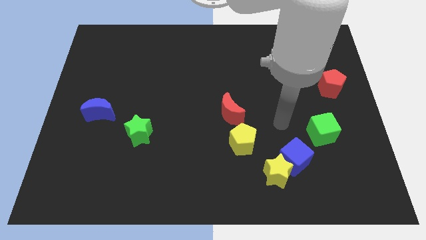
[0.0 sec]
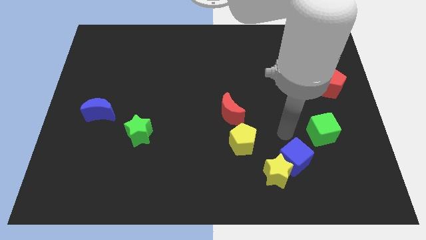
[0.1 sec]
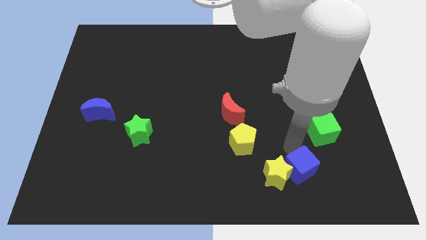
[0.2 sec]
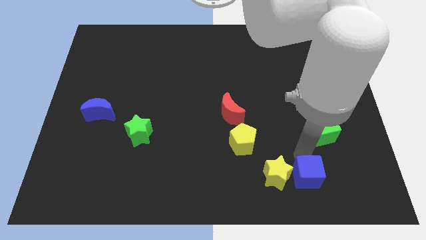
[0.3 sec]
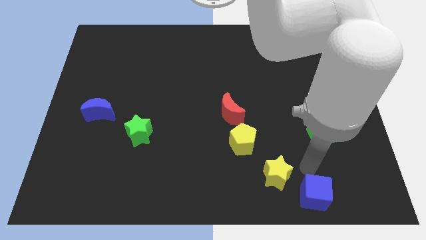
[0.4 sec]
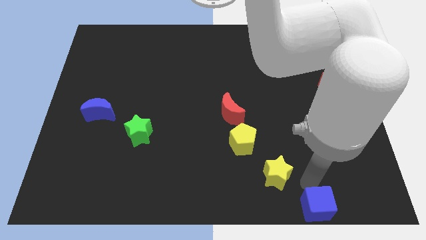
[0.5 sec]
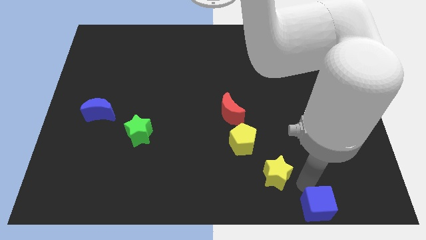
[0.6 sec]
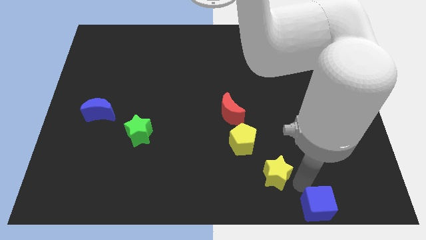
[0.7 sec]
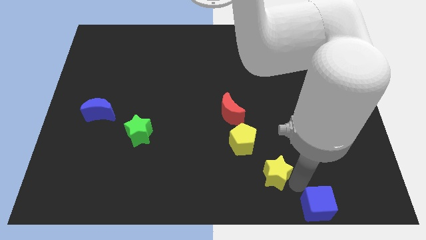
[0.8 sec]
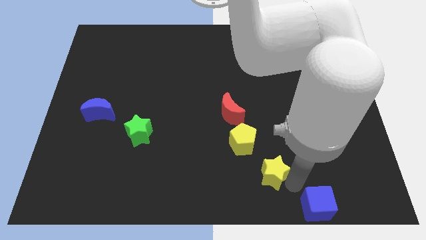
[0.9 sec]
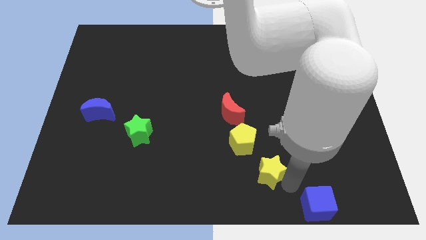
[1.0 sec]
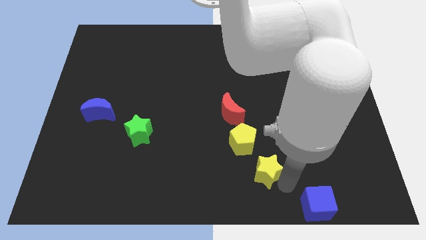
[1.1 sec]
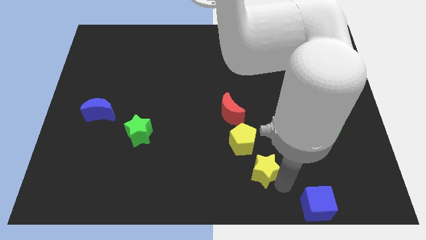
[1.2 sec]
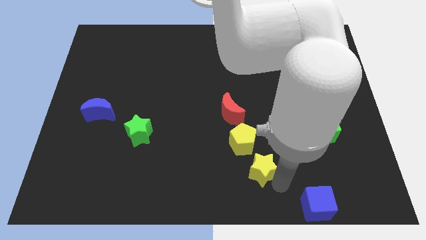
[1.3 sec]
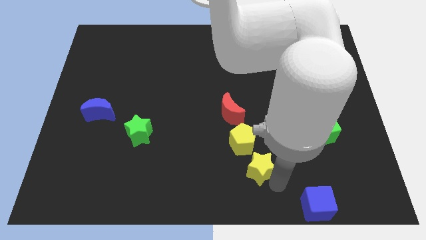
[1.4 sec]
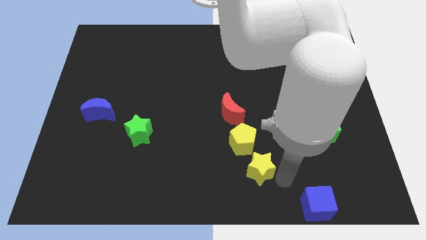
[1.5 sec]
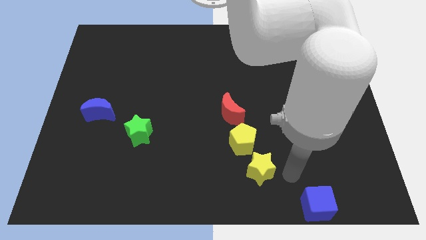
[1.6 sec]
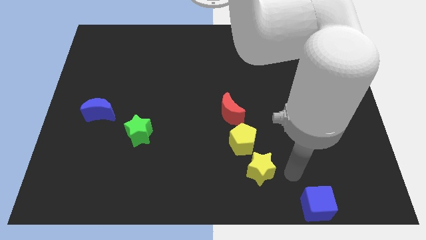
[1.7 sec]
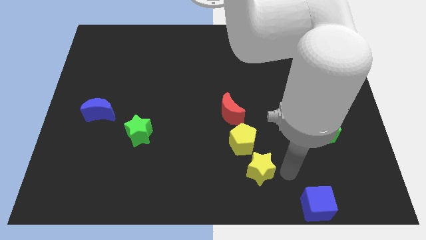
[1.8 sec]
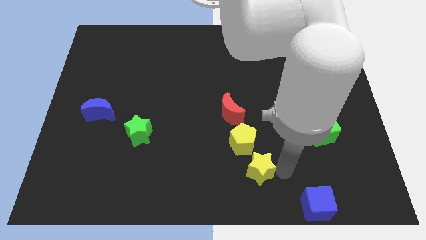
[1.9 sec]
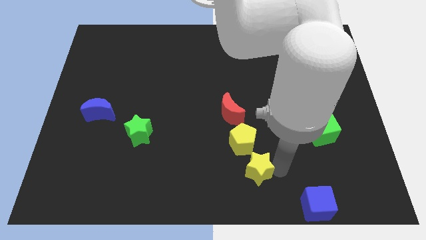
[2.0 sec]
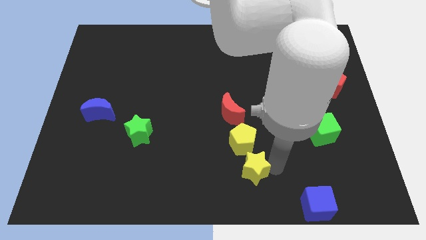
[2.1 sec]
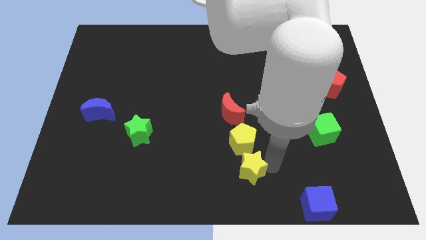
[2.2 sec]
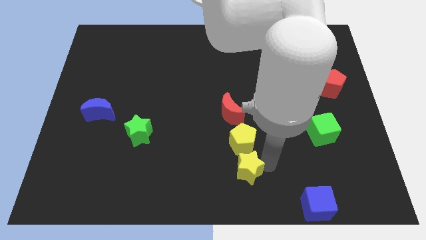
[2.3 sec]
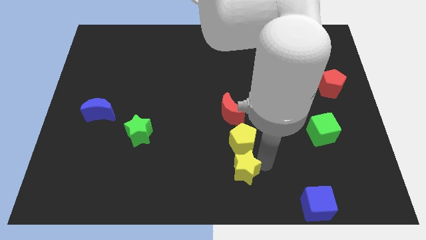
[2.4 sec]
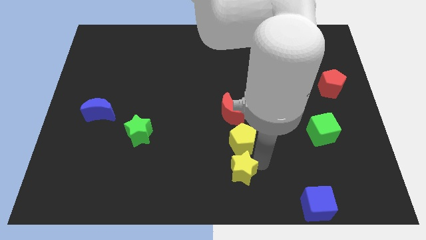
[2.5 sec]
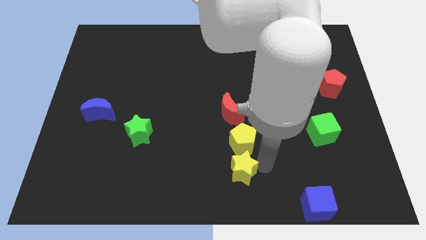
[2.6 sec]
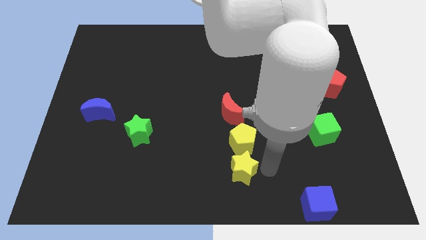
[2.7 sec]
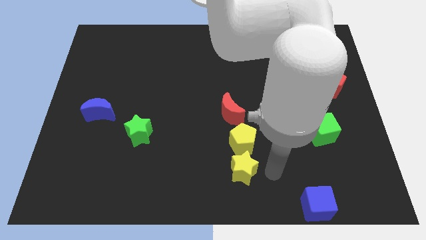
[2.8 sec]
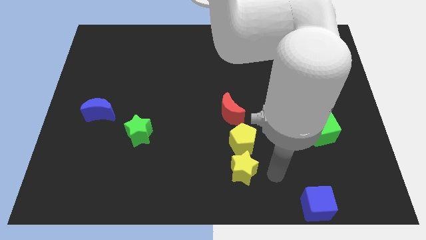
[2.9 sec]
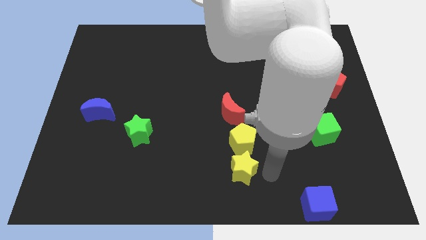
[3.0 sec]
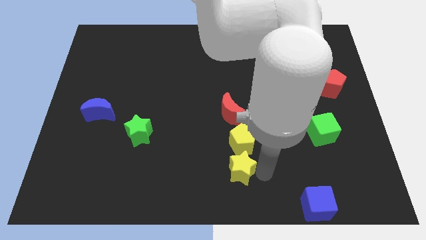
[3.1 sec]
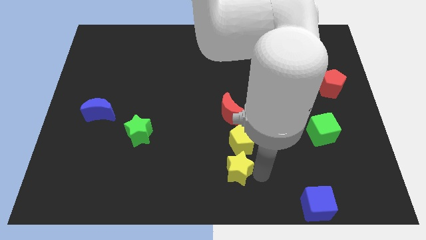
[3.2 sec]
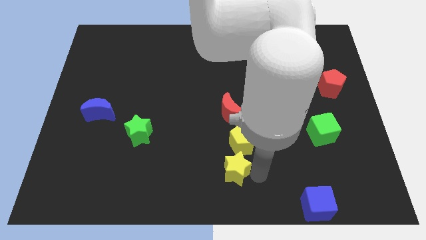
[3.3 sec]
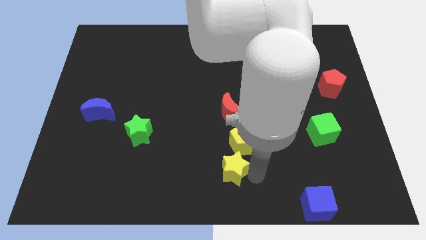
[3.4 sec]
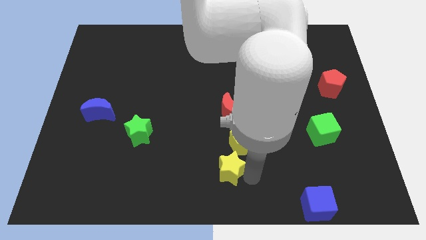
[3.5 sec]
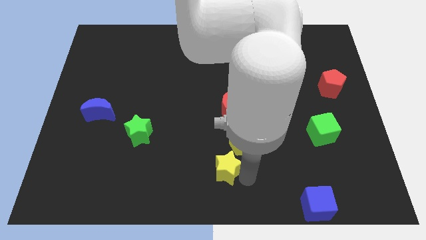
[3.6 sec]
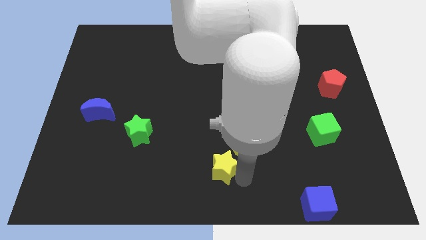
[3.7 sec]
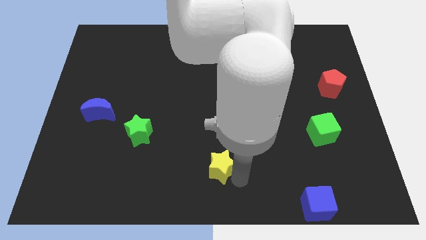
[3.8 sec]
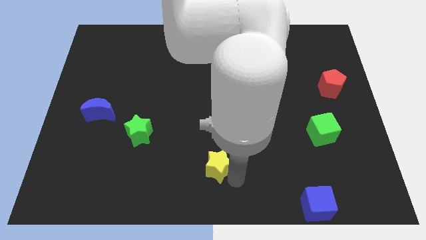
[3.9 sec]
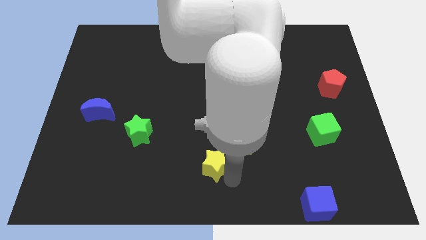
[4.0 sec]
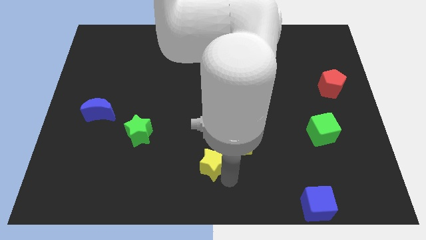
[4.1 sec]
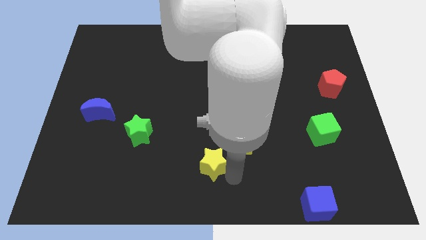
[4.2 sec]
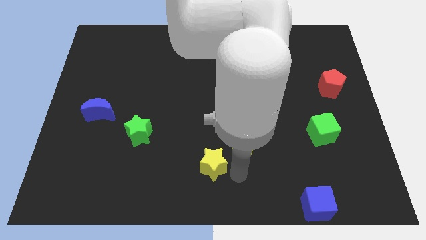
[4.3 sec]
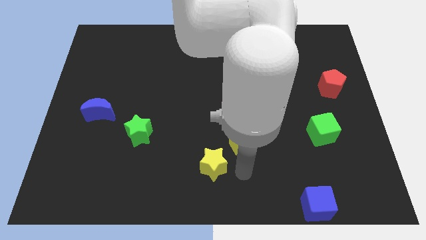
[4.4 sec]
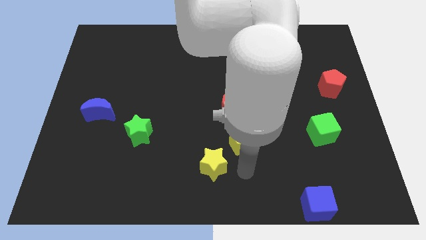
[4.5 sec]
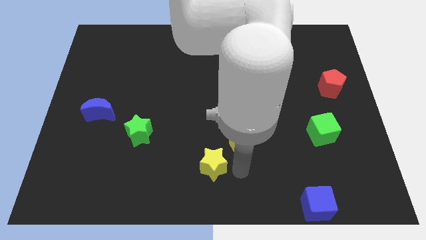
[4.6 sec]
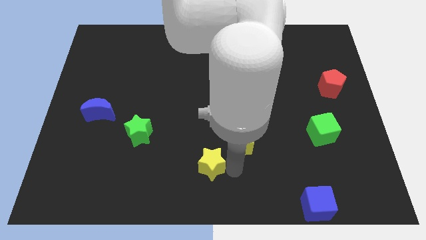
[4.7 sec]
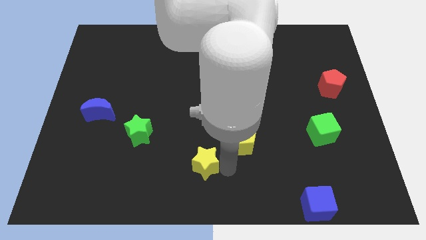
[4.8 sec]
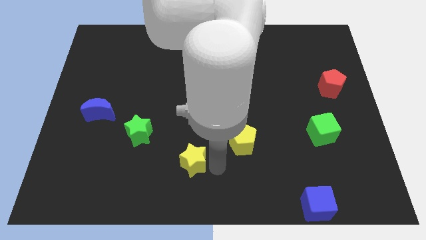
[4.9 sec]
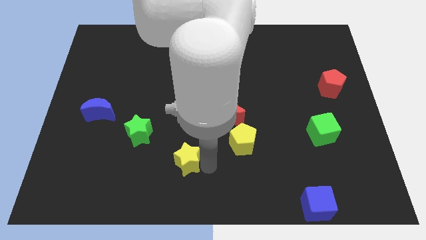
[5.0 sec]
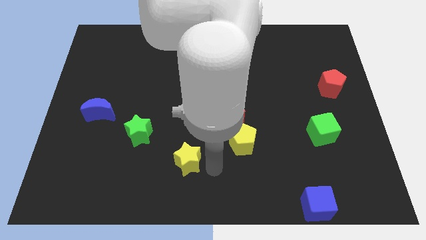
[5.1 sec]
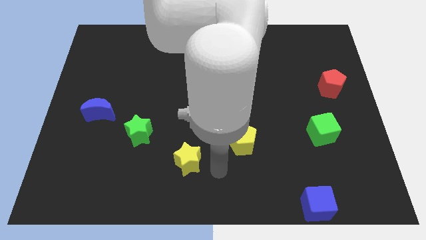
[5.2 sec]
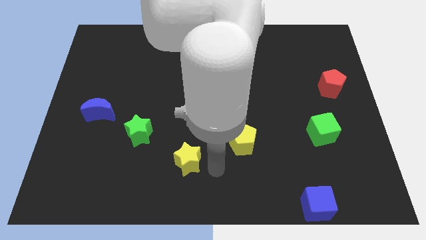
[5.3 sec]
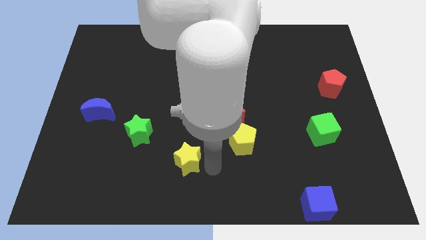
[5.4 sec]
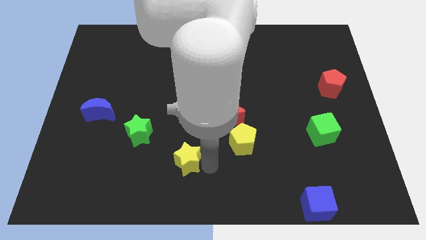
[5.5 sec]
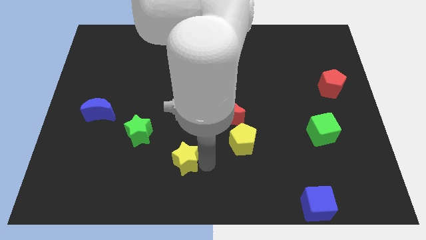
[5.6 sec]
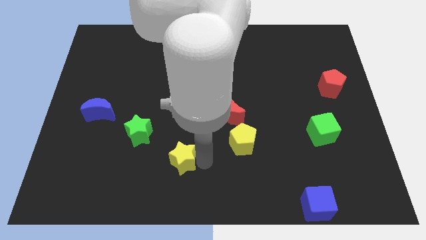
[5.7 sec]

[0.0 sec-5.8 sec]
slide the yellow star diagonally down and to the right of the green star
